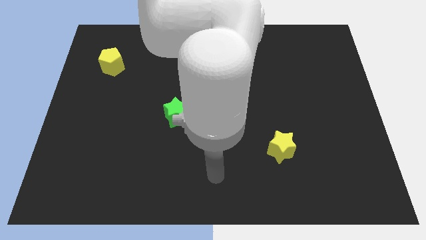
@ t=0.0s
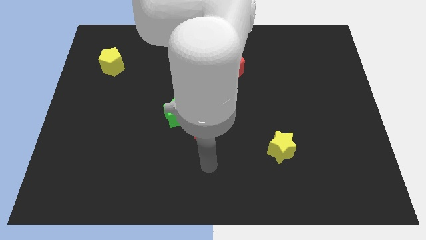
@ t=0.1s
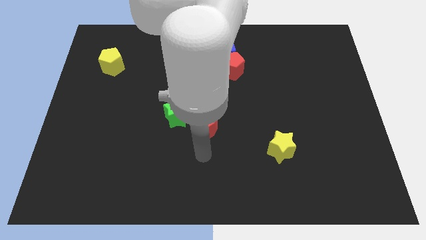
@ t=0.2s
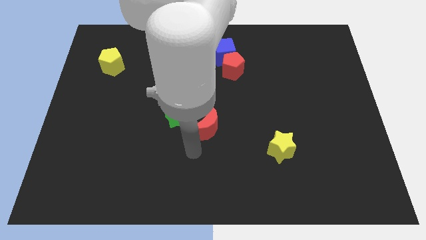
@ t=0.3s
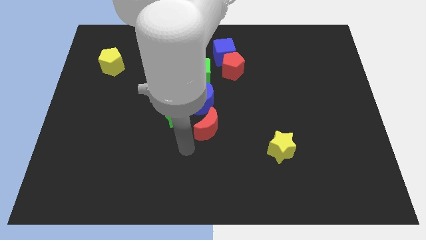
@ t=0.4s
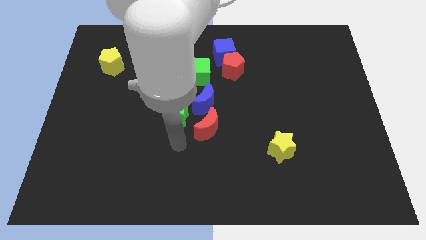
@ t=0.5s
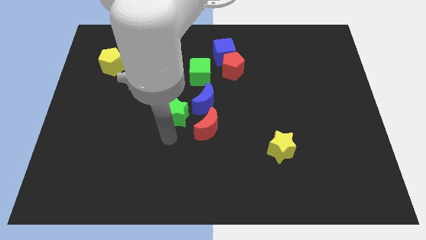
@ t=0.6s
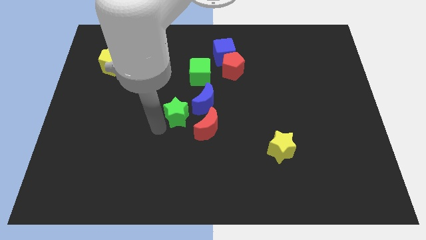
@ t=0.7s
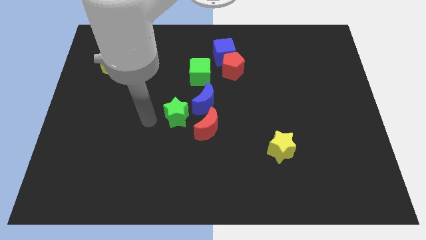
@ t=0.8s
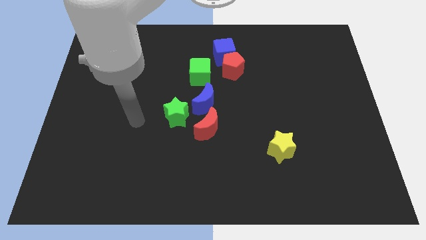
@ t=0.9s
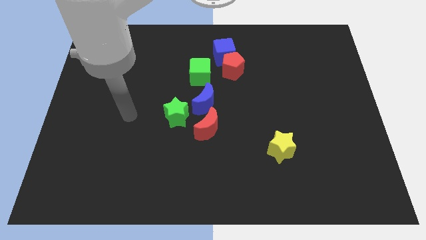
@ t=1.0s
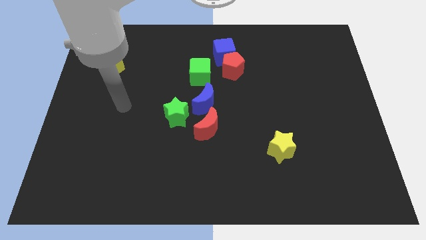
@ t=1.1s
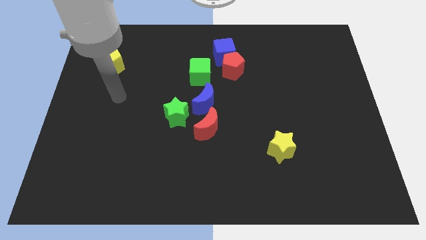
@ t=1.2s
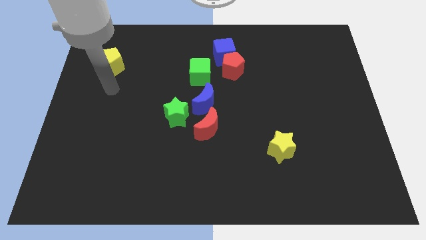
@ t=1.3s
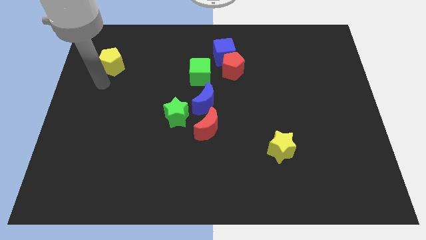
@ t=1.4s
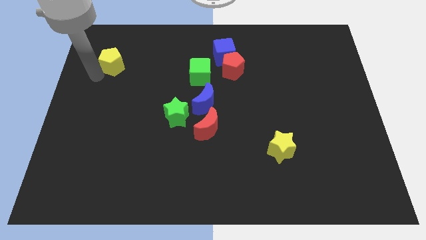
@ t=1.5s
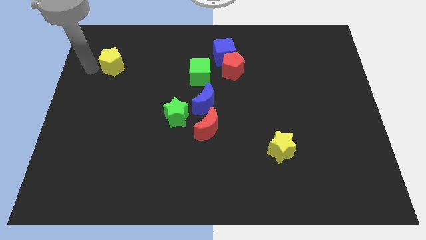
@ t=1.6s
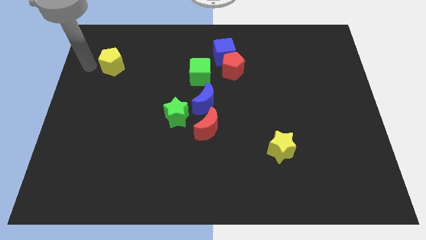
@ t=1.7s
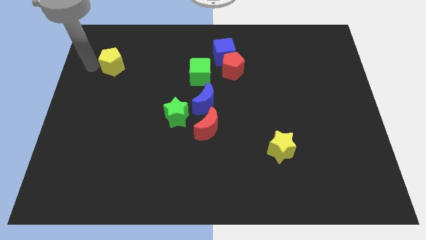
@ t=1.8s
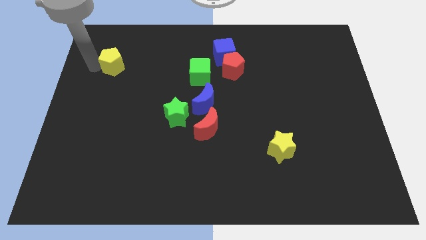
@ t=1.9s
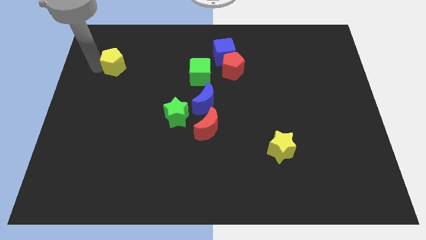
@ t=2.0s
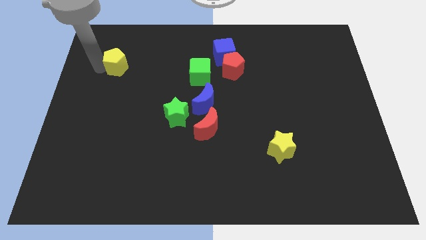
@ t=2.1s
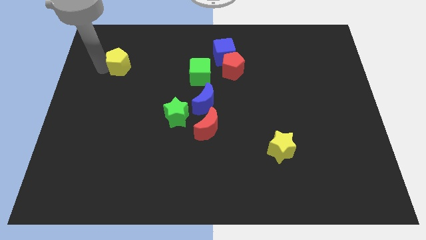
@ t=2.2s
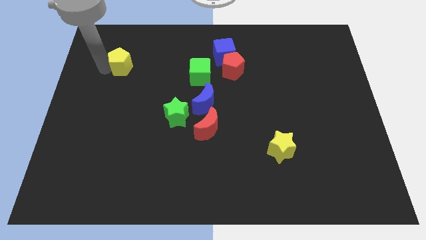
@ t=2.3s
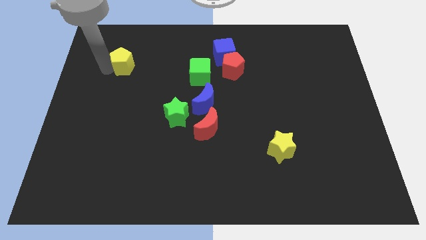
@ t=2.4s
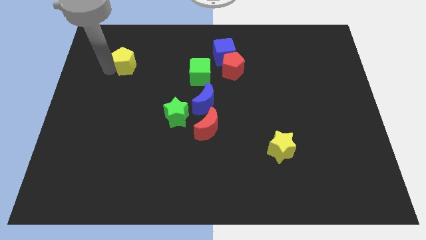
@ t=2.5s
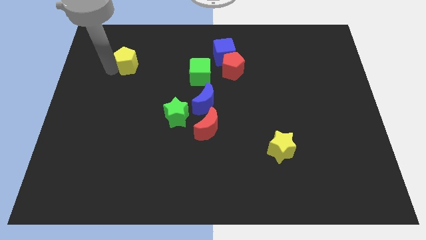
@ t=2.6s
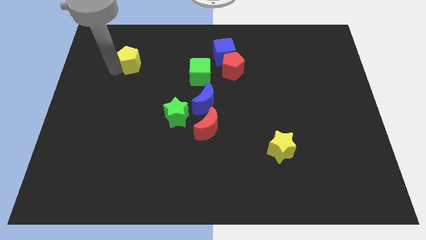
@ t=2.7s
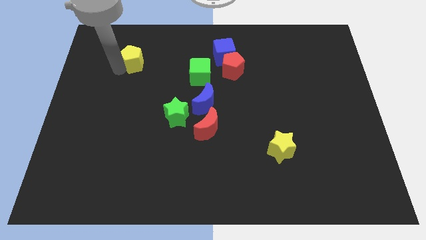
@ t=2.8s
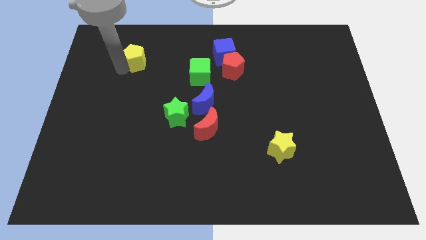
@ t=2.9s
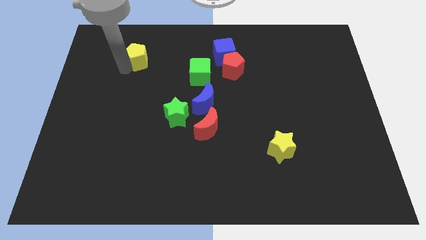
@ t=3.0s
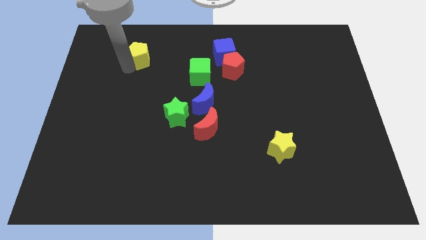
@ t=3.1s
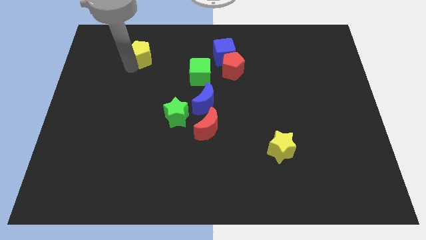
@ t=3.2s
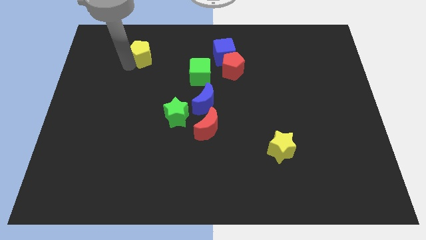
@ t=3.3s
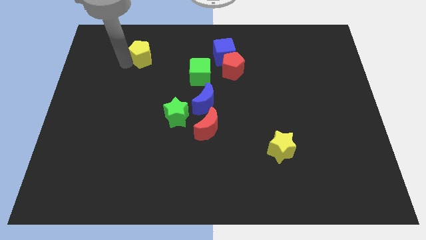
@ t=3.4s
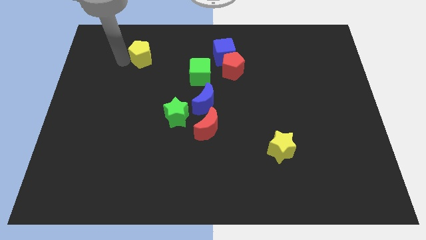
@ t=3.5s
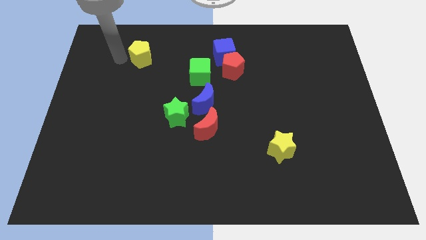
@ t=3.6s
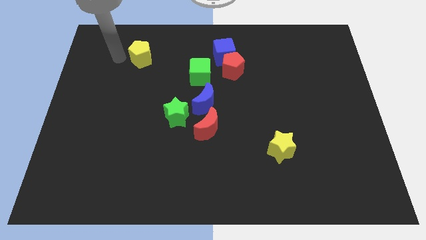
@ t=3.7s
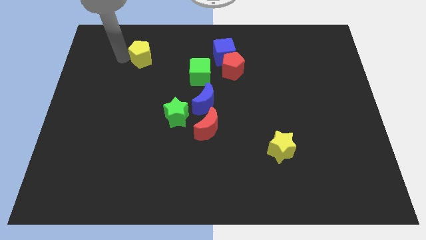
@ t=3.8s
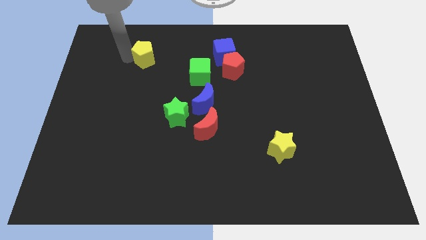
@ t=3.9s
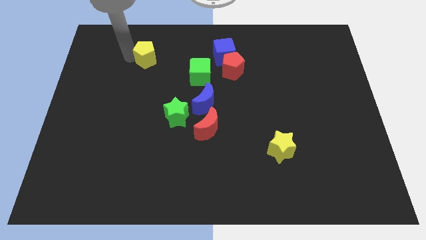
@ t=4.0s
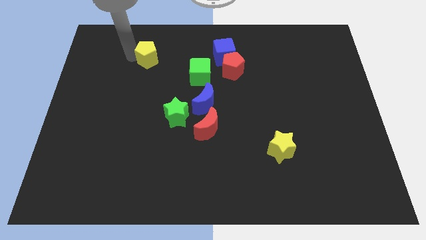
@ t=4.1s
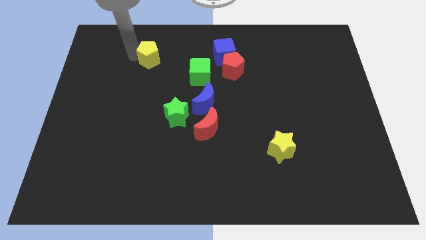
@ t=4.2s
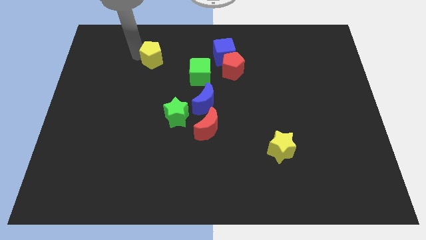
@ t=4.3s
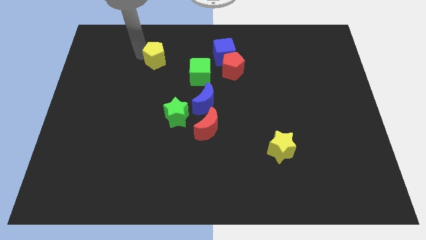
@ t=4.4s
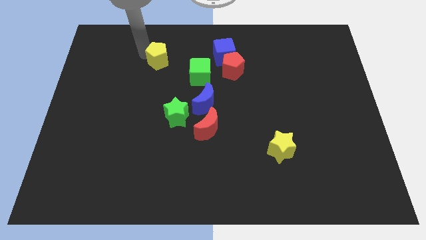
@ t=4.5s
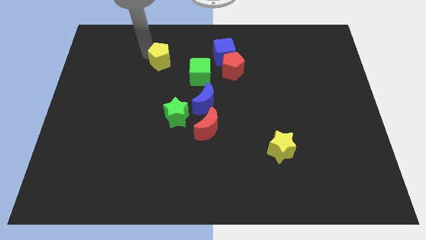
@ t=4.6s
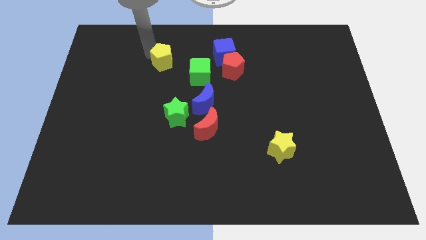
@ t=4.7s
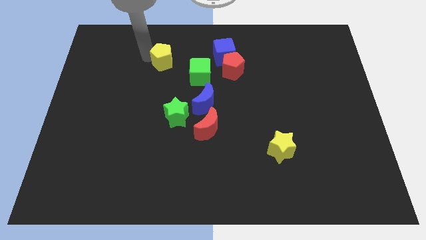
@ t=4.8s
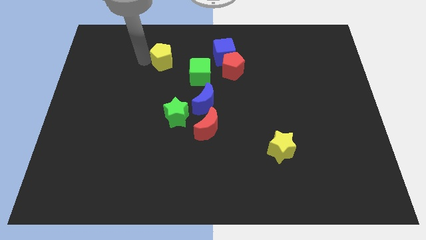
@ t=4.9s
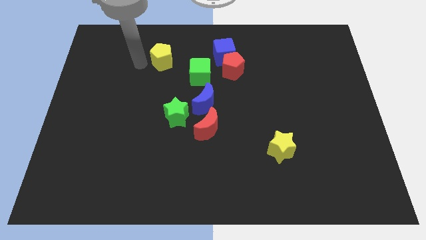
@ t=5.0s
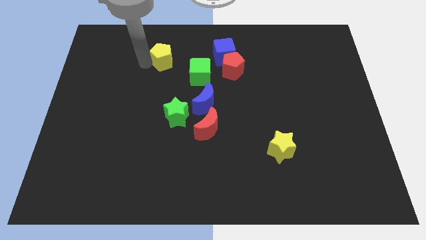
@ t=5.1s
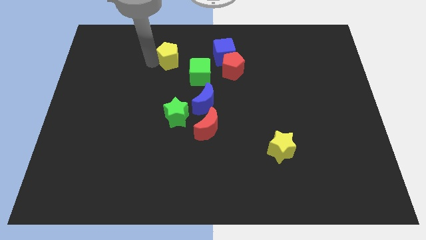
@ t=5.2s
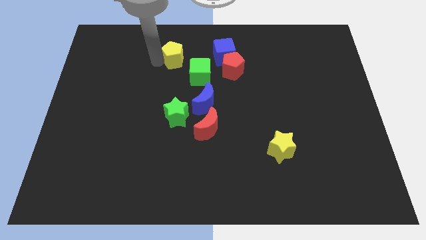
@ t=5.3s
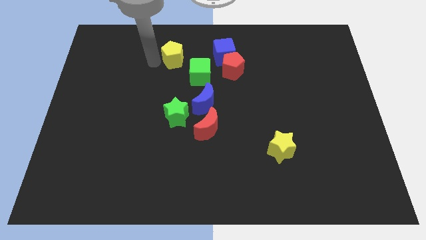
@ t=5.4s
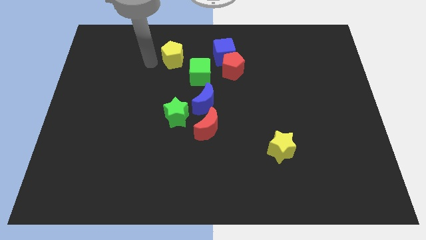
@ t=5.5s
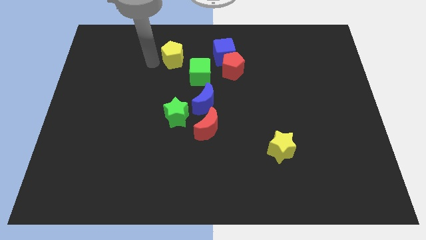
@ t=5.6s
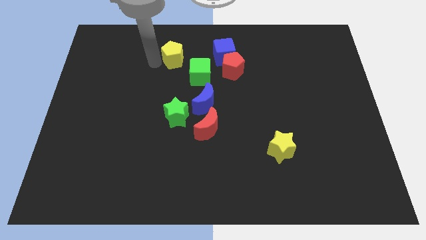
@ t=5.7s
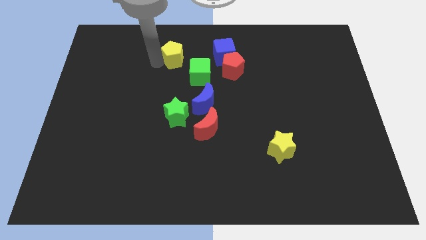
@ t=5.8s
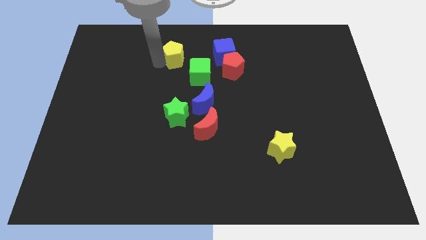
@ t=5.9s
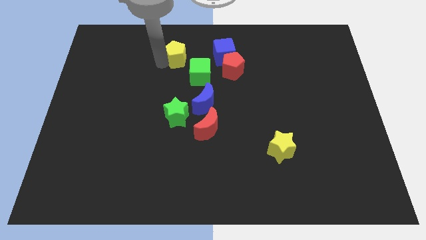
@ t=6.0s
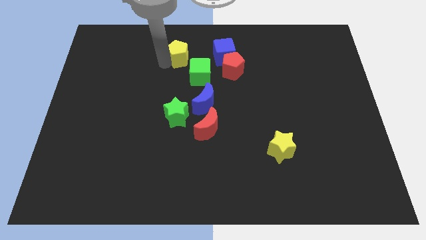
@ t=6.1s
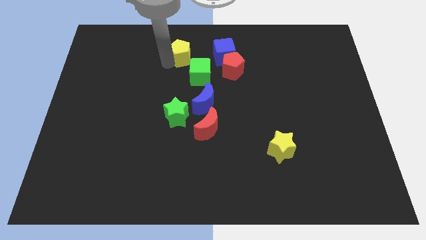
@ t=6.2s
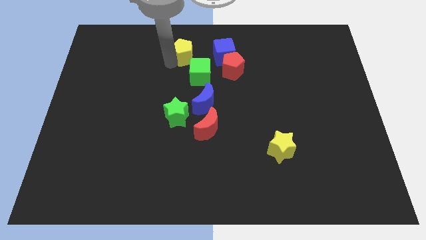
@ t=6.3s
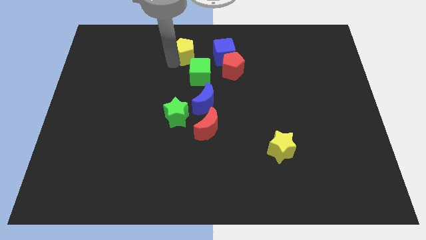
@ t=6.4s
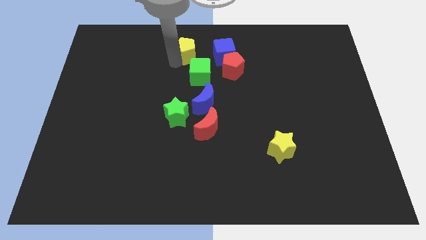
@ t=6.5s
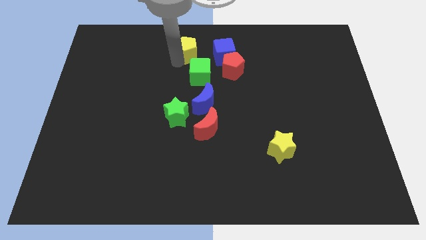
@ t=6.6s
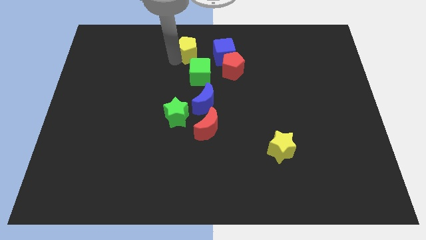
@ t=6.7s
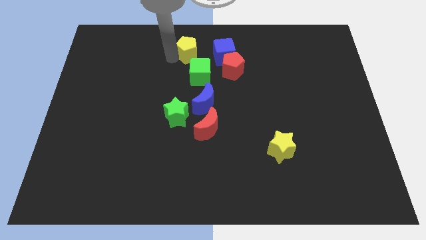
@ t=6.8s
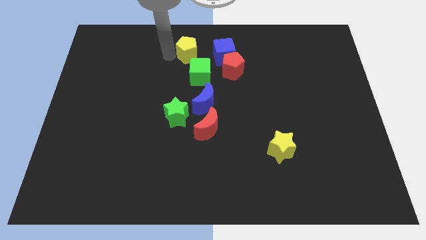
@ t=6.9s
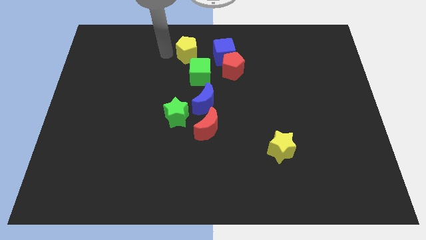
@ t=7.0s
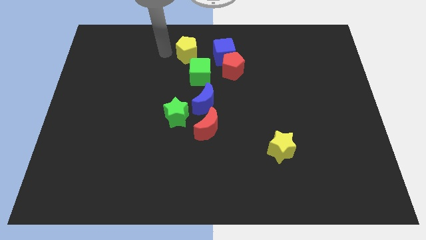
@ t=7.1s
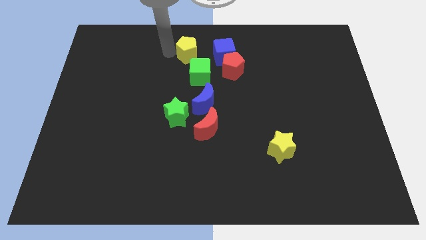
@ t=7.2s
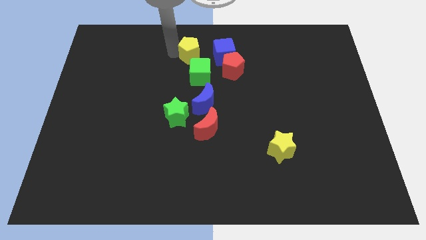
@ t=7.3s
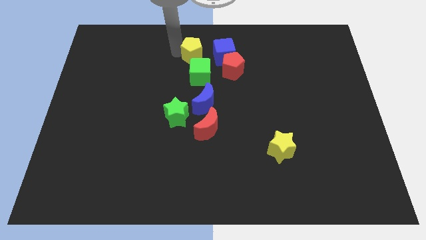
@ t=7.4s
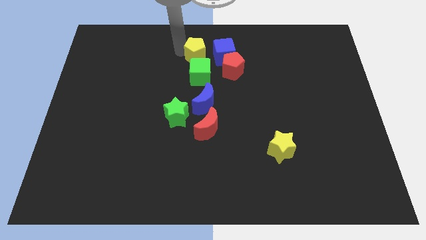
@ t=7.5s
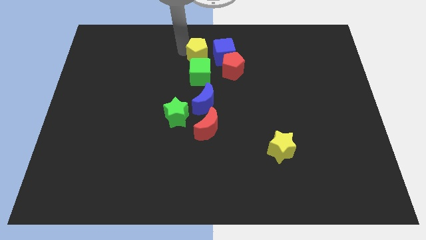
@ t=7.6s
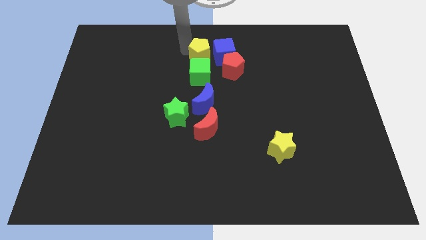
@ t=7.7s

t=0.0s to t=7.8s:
move the yellow pentagon to the blue cube
